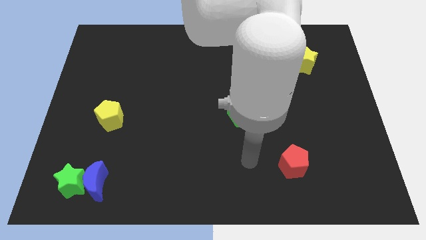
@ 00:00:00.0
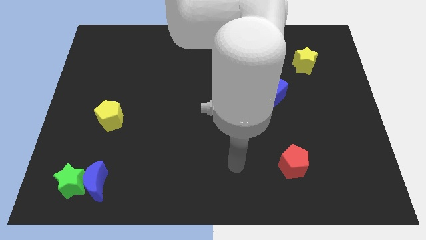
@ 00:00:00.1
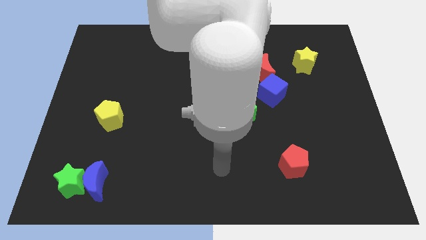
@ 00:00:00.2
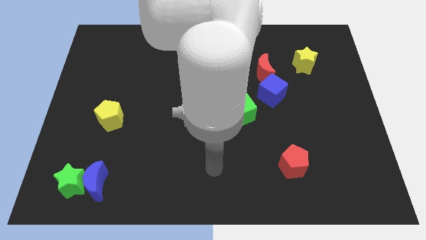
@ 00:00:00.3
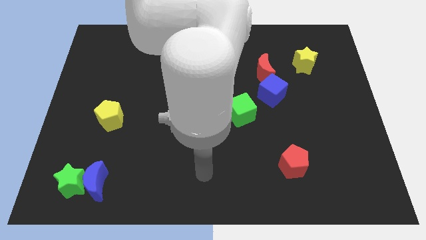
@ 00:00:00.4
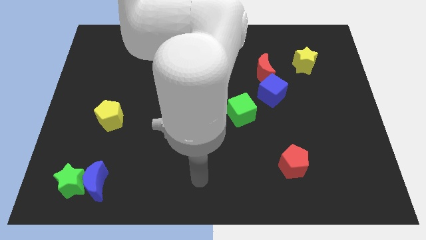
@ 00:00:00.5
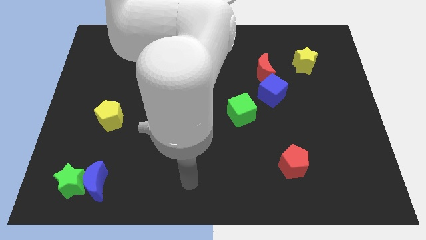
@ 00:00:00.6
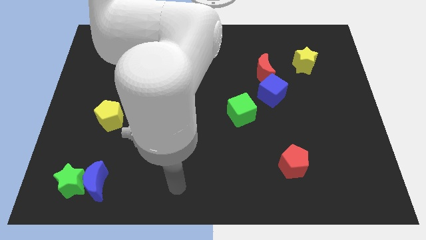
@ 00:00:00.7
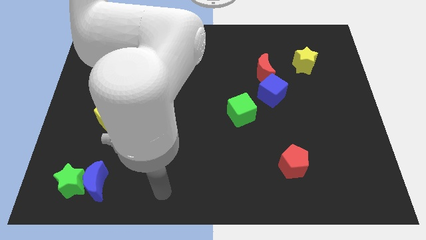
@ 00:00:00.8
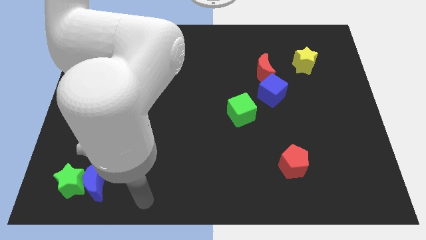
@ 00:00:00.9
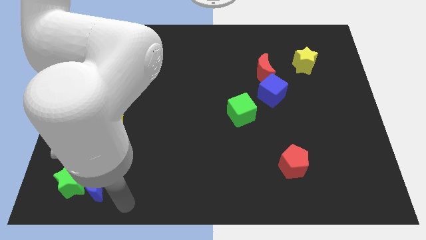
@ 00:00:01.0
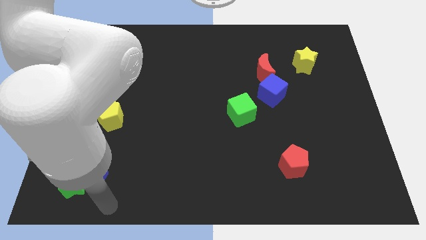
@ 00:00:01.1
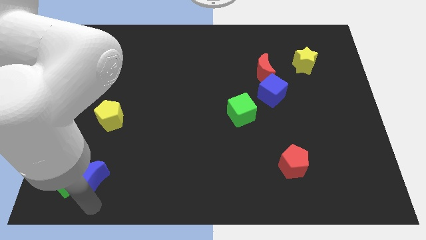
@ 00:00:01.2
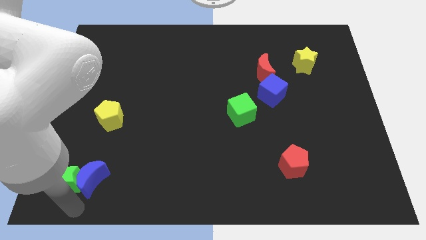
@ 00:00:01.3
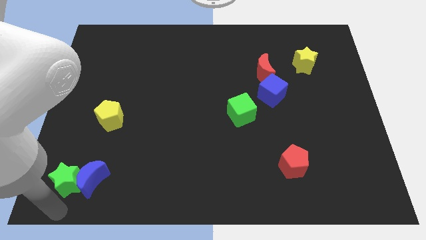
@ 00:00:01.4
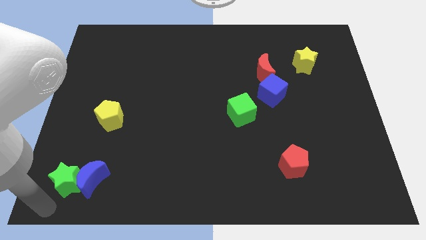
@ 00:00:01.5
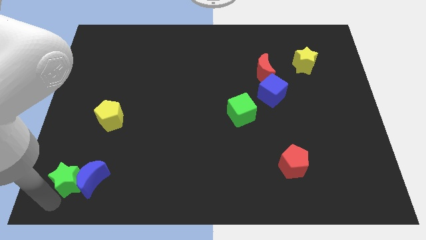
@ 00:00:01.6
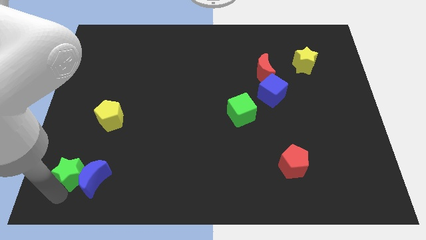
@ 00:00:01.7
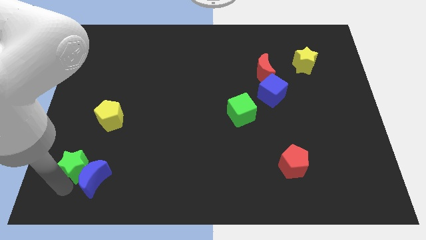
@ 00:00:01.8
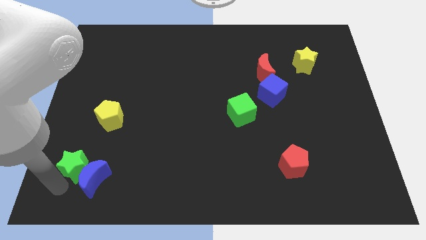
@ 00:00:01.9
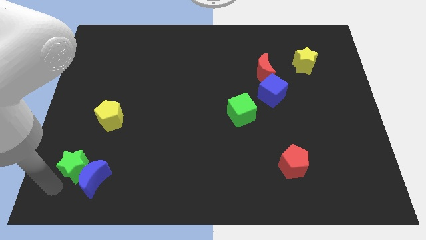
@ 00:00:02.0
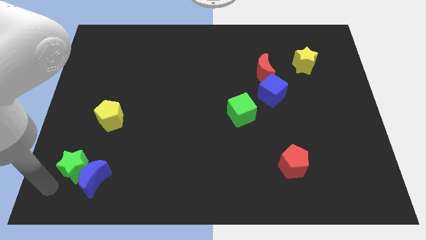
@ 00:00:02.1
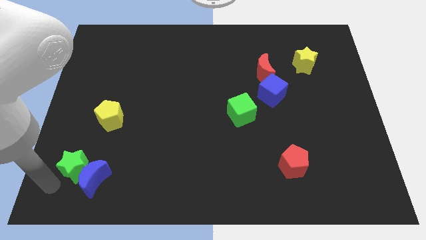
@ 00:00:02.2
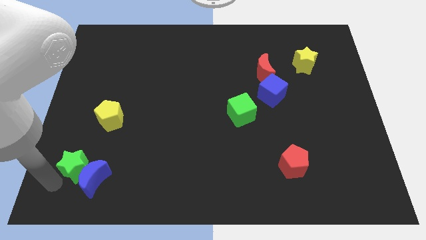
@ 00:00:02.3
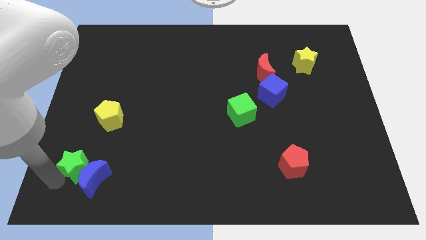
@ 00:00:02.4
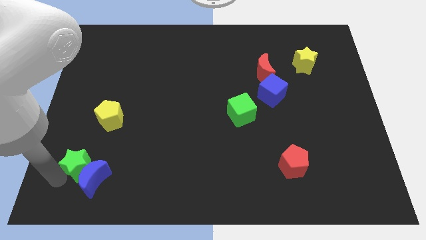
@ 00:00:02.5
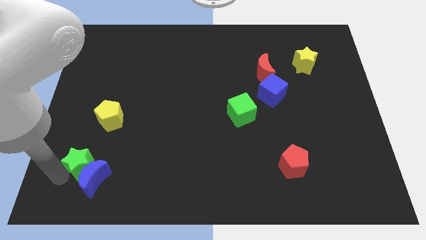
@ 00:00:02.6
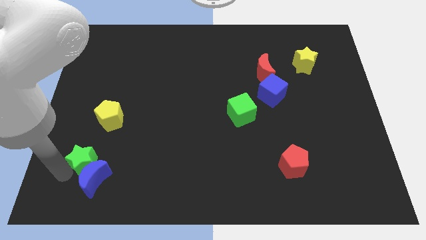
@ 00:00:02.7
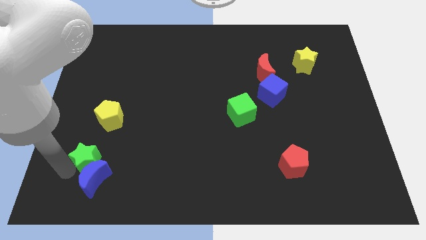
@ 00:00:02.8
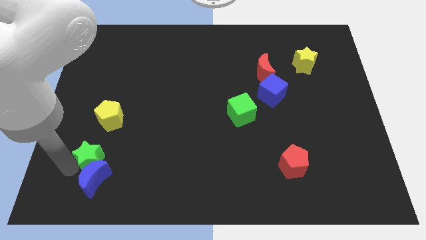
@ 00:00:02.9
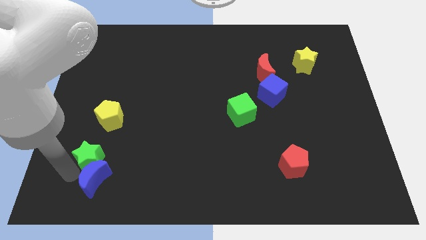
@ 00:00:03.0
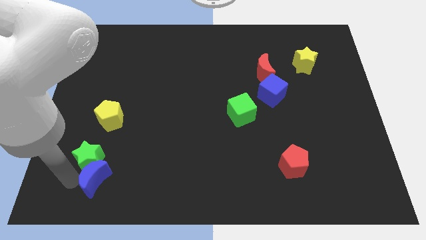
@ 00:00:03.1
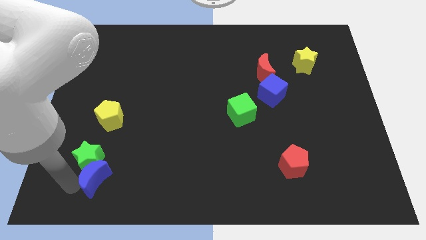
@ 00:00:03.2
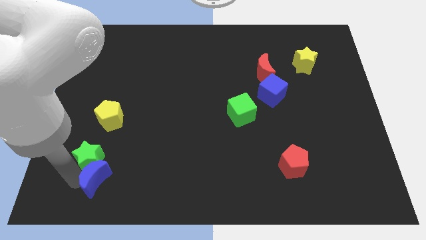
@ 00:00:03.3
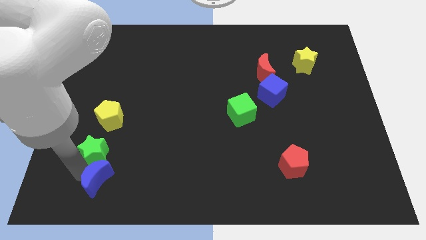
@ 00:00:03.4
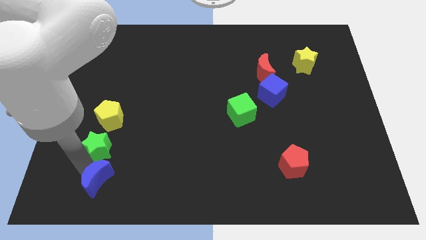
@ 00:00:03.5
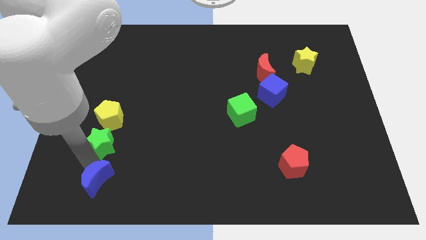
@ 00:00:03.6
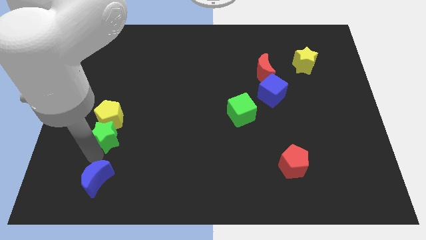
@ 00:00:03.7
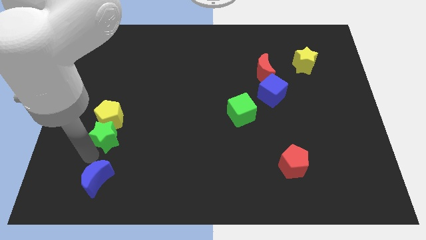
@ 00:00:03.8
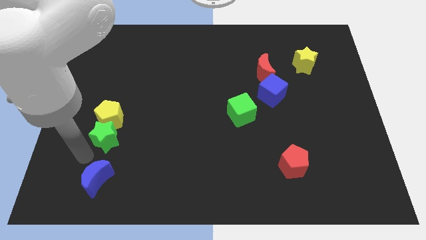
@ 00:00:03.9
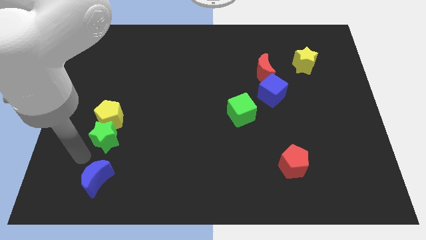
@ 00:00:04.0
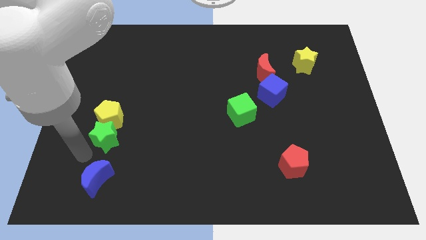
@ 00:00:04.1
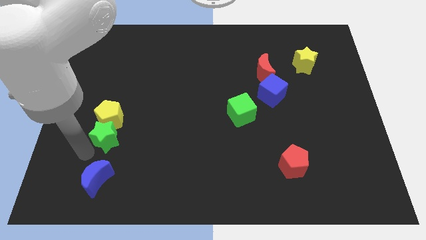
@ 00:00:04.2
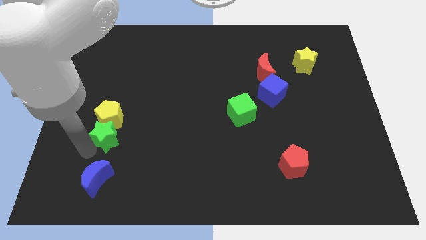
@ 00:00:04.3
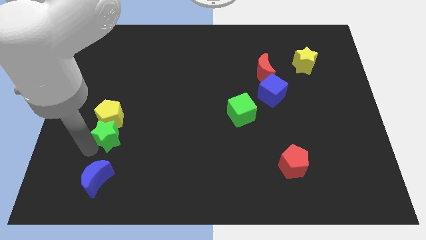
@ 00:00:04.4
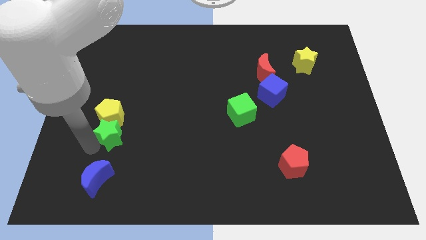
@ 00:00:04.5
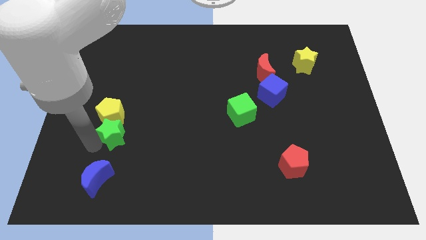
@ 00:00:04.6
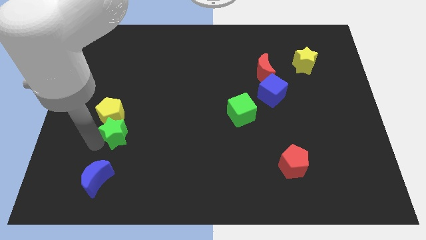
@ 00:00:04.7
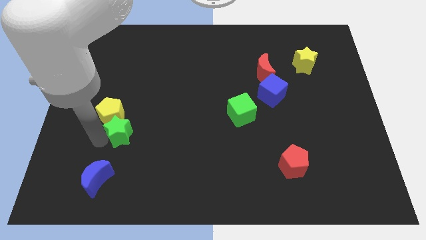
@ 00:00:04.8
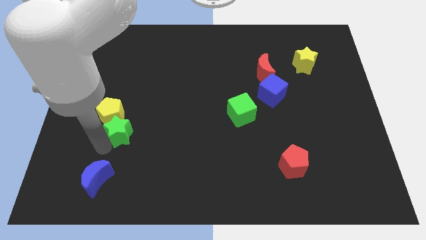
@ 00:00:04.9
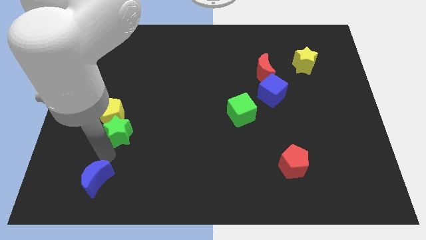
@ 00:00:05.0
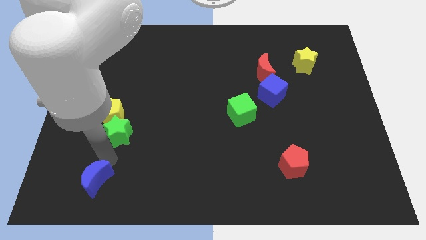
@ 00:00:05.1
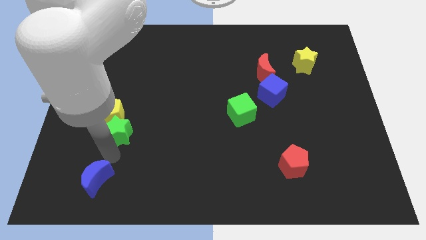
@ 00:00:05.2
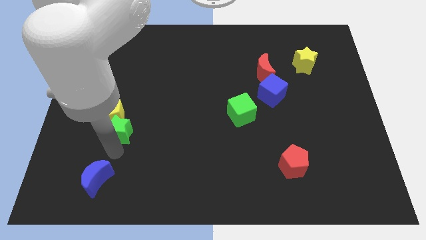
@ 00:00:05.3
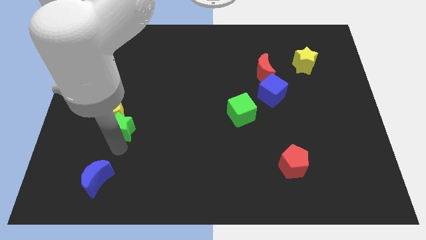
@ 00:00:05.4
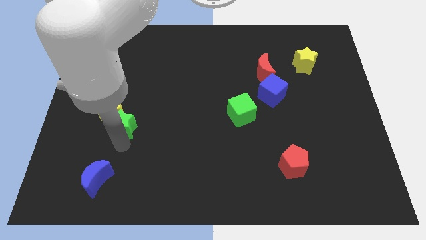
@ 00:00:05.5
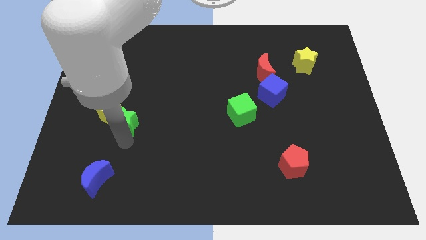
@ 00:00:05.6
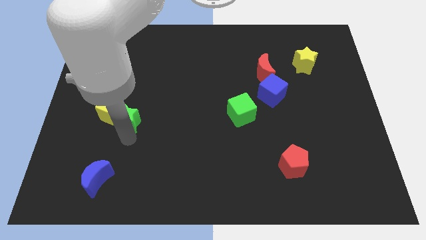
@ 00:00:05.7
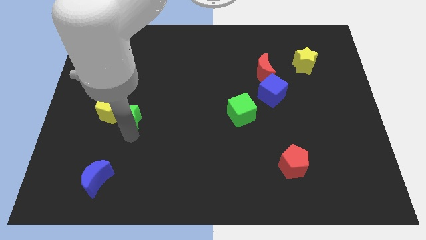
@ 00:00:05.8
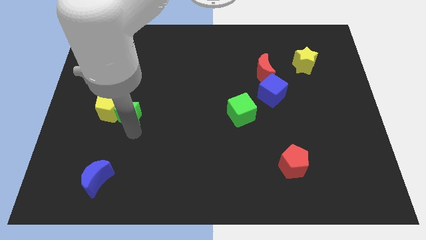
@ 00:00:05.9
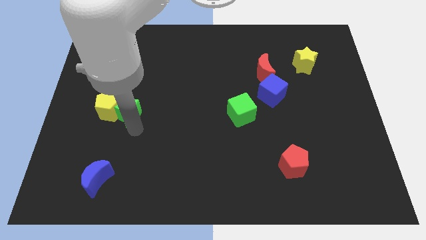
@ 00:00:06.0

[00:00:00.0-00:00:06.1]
put the green star to the top right of the yellow pentagon

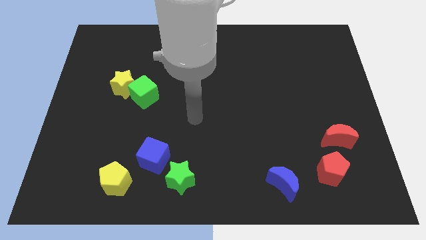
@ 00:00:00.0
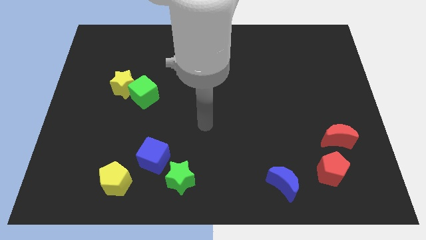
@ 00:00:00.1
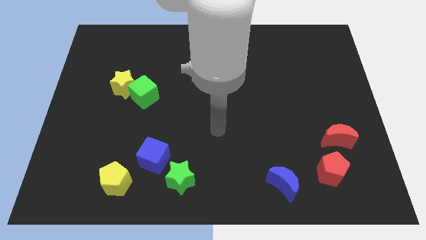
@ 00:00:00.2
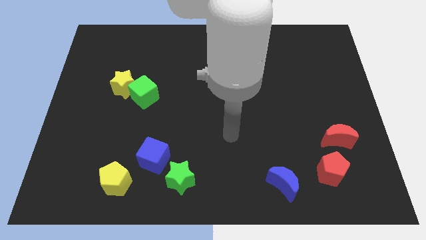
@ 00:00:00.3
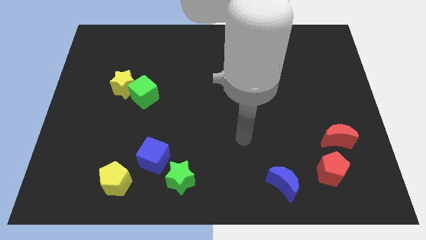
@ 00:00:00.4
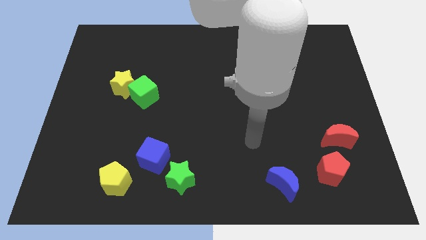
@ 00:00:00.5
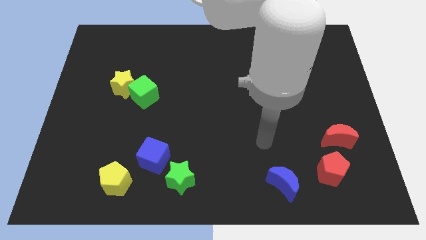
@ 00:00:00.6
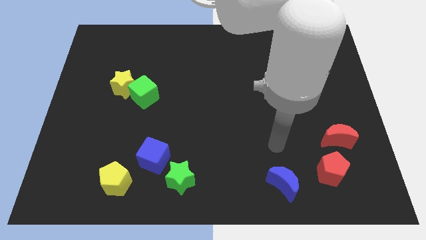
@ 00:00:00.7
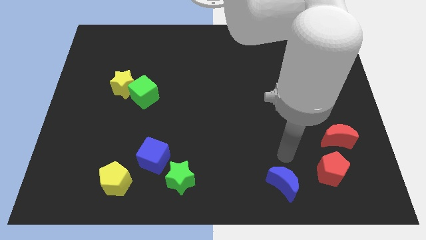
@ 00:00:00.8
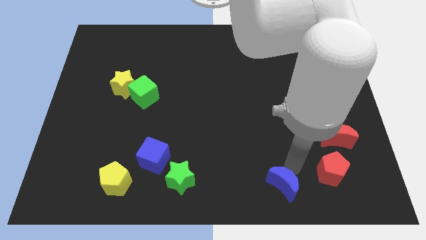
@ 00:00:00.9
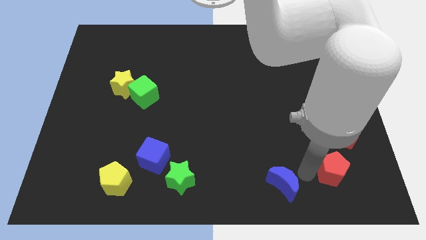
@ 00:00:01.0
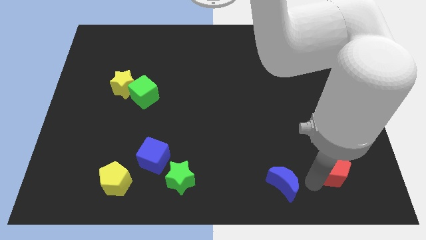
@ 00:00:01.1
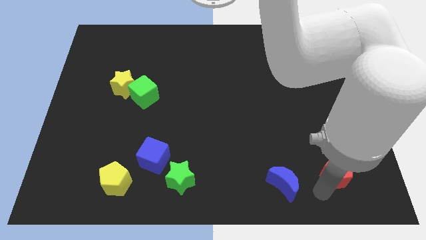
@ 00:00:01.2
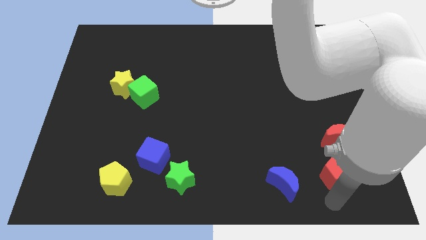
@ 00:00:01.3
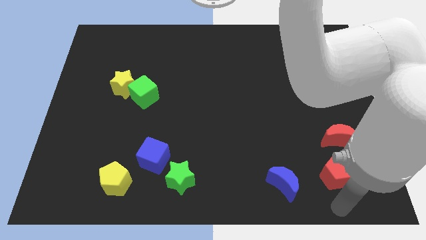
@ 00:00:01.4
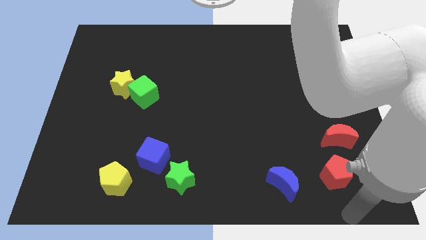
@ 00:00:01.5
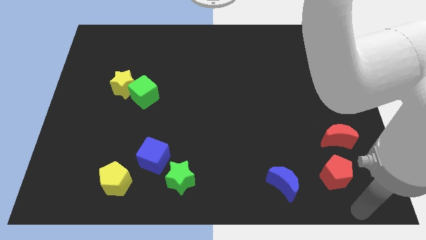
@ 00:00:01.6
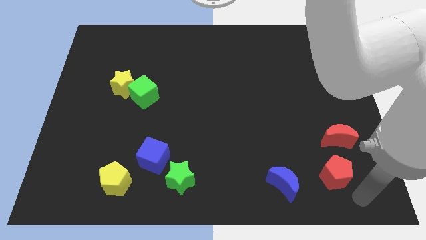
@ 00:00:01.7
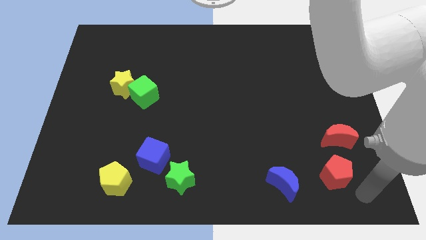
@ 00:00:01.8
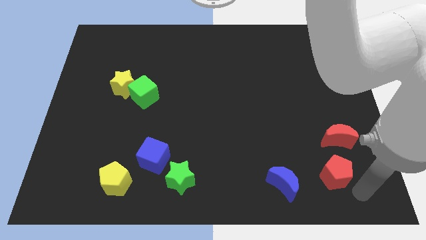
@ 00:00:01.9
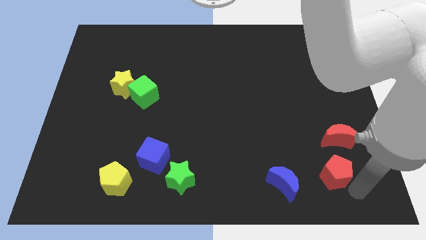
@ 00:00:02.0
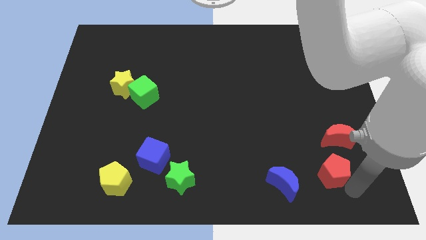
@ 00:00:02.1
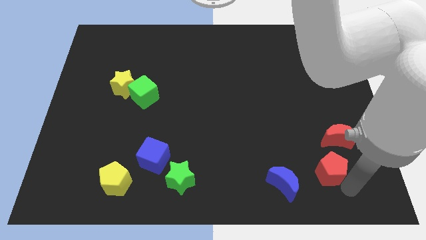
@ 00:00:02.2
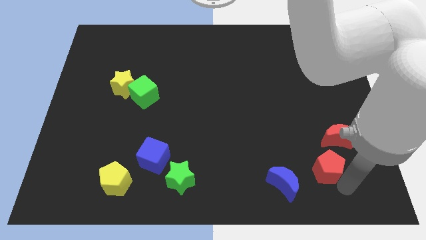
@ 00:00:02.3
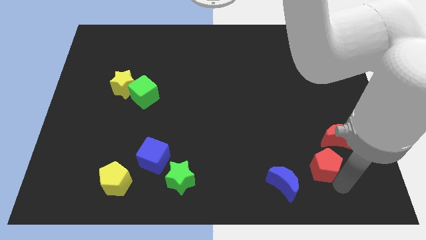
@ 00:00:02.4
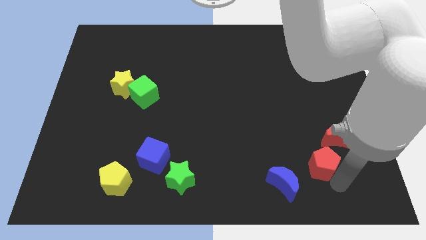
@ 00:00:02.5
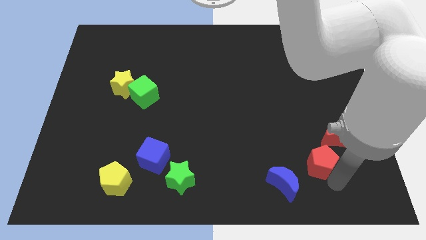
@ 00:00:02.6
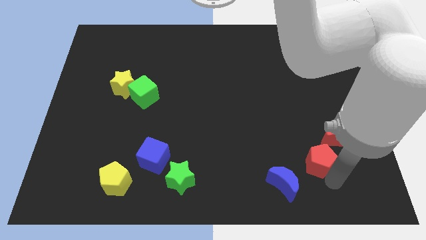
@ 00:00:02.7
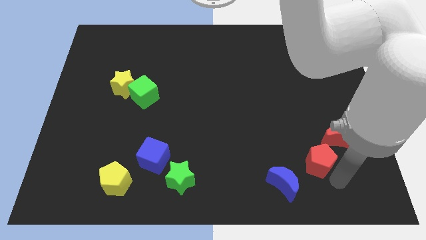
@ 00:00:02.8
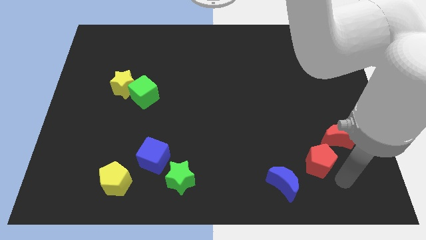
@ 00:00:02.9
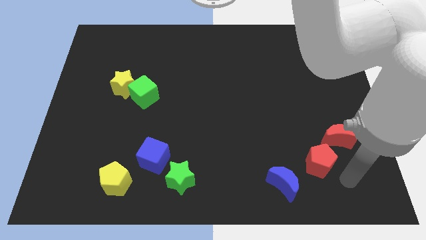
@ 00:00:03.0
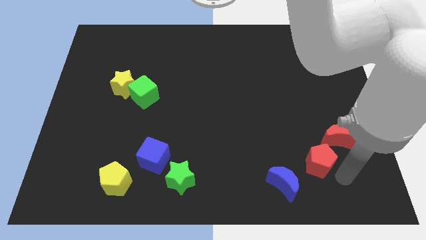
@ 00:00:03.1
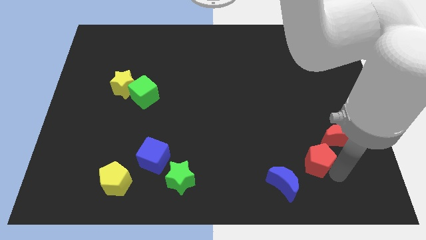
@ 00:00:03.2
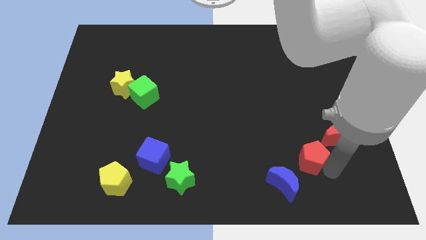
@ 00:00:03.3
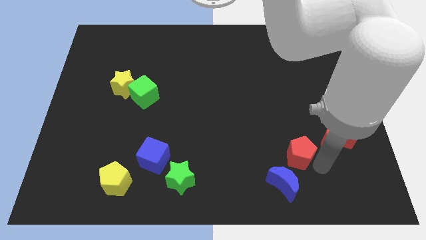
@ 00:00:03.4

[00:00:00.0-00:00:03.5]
put the red pentagon to the top side of the blue moon
